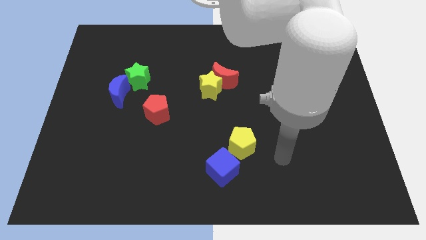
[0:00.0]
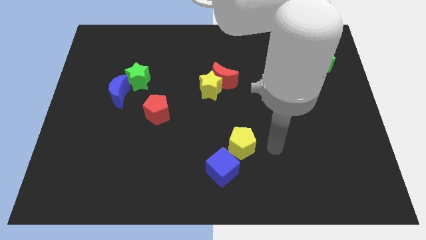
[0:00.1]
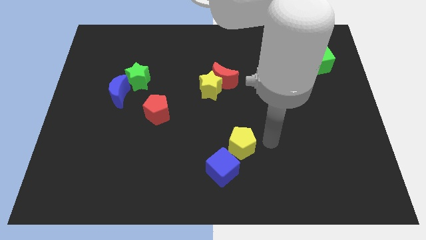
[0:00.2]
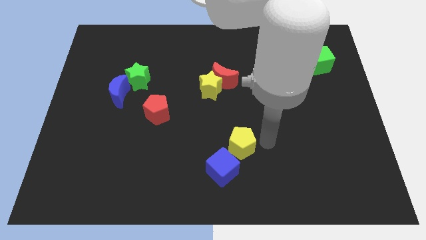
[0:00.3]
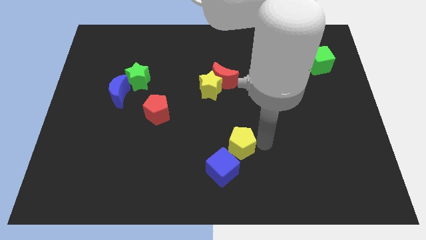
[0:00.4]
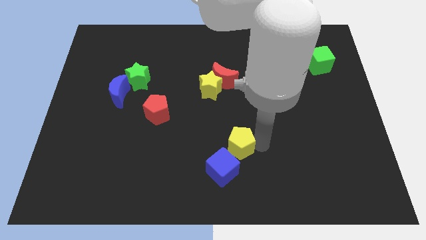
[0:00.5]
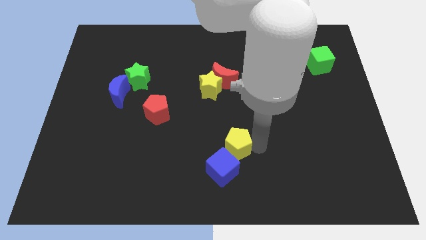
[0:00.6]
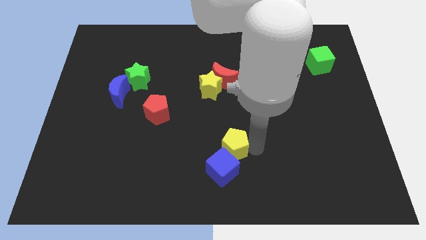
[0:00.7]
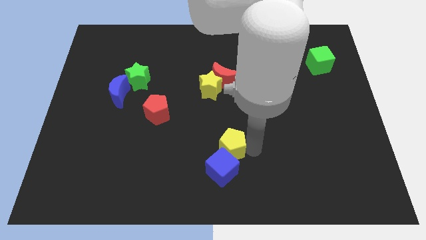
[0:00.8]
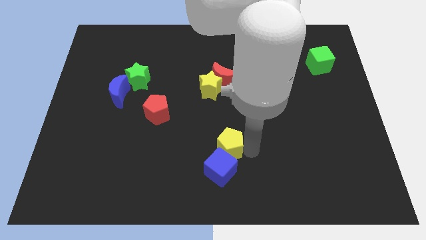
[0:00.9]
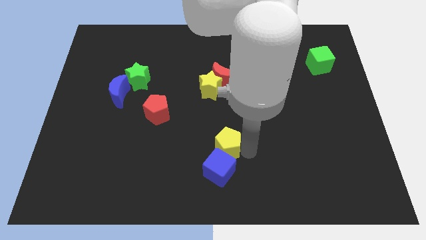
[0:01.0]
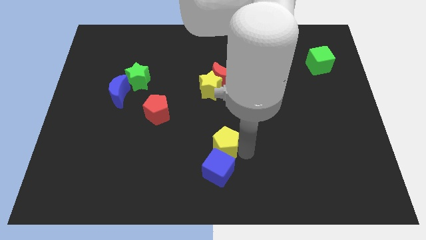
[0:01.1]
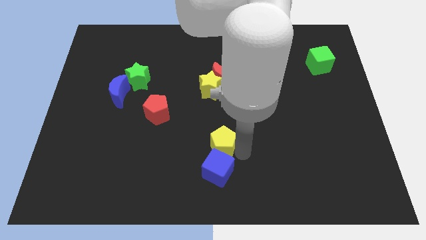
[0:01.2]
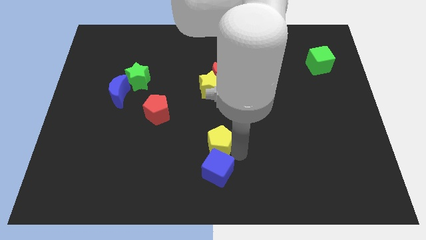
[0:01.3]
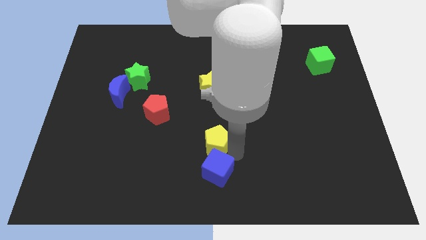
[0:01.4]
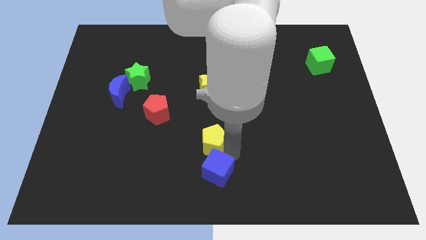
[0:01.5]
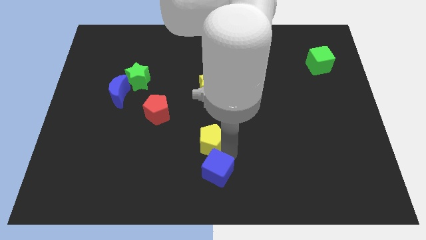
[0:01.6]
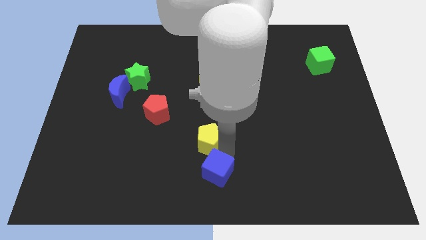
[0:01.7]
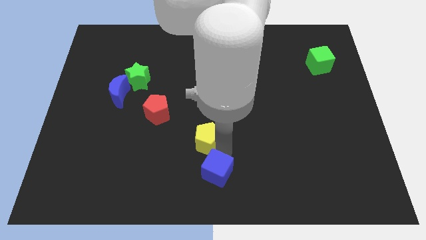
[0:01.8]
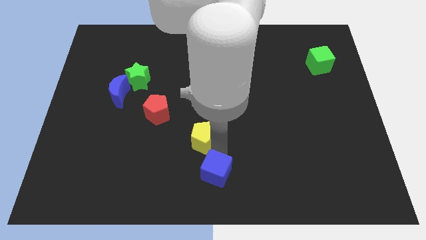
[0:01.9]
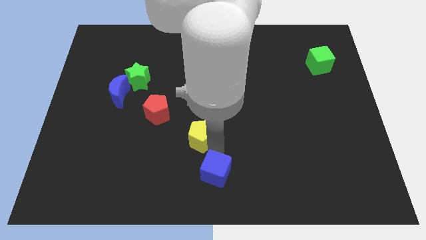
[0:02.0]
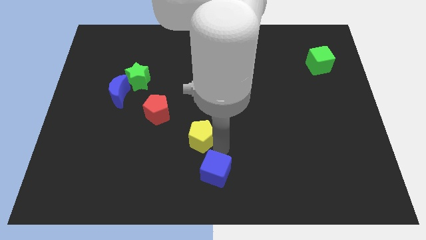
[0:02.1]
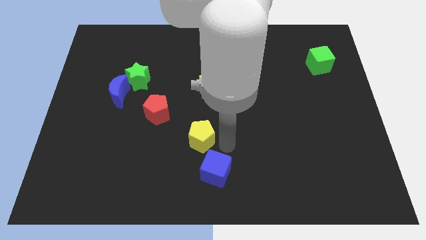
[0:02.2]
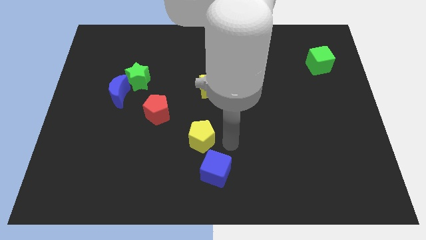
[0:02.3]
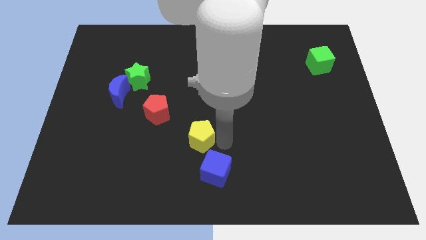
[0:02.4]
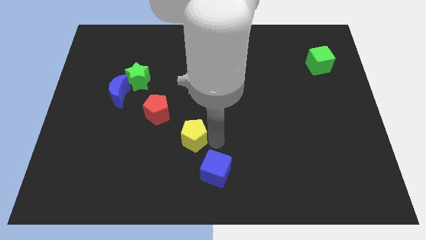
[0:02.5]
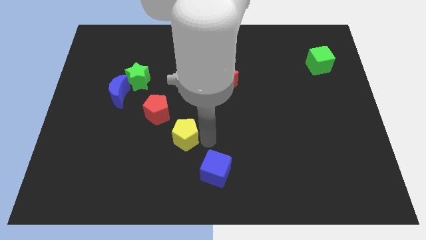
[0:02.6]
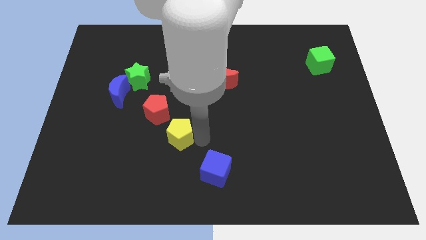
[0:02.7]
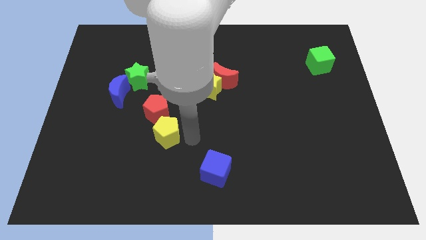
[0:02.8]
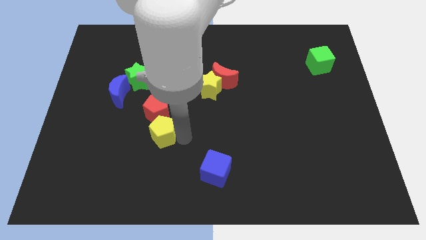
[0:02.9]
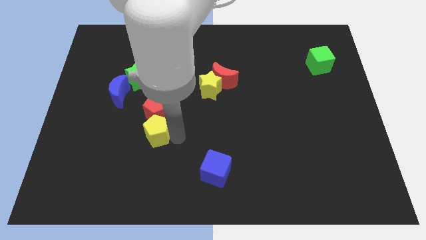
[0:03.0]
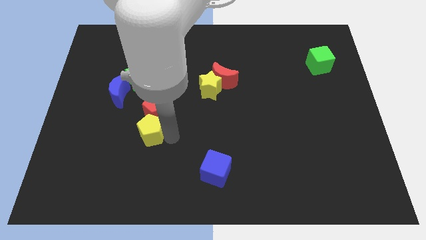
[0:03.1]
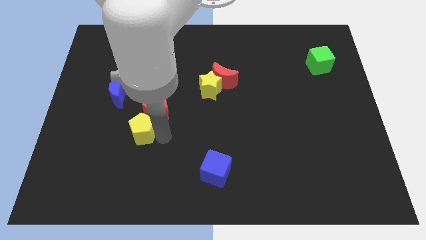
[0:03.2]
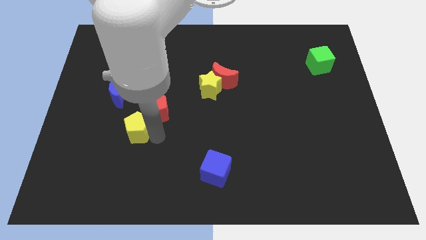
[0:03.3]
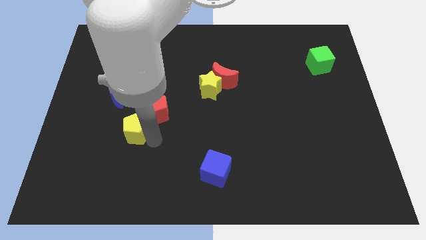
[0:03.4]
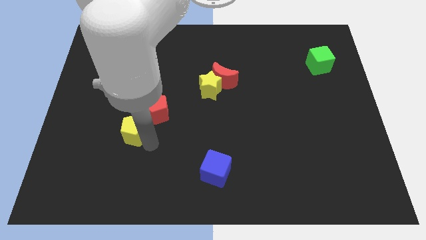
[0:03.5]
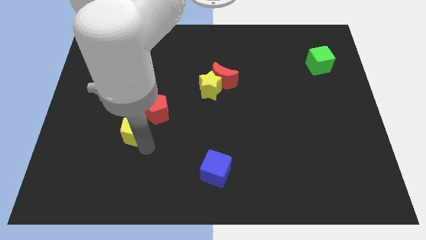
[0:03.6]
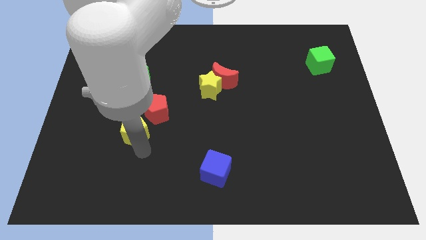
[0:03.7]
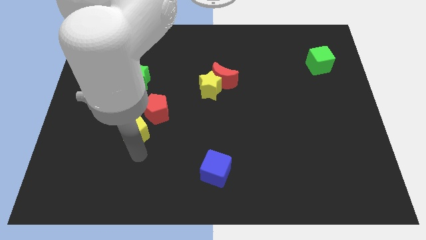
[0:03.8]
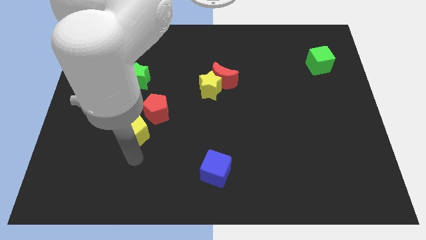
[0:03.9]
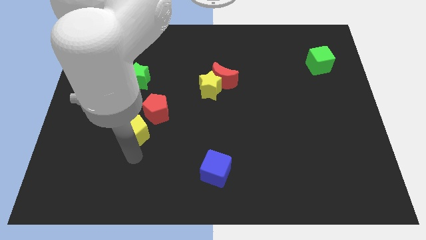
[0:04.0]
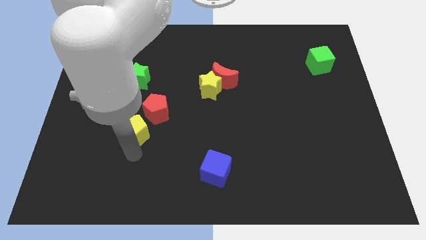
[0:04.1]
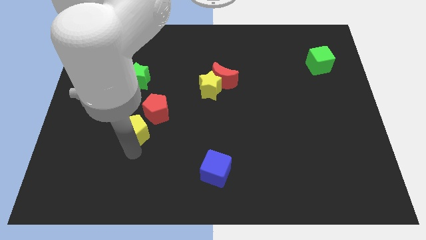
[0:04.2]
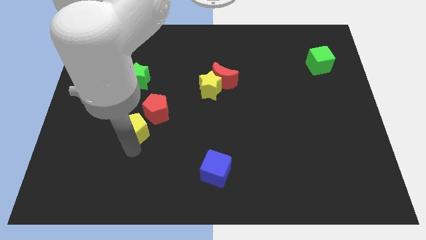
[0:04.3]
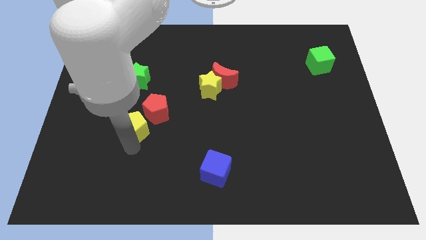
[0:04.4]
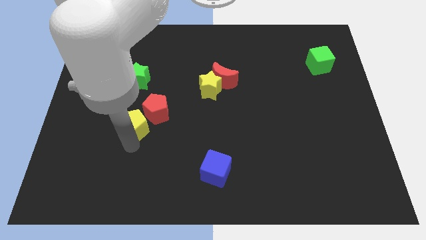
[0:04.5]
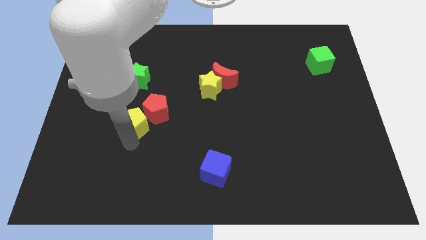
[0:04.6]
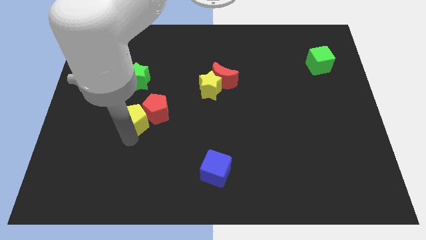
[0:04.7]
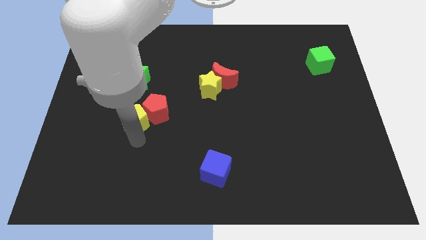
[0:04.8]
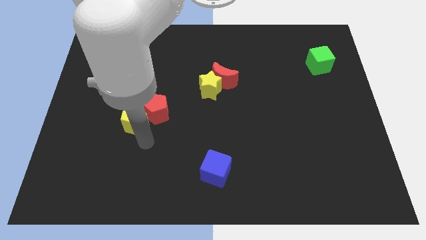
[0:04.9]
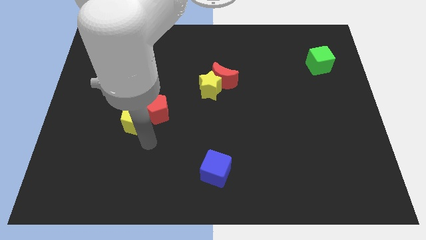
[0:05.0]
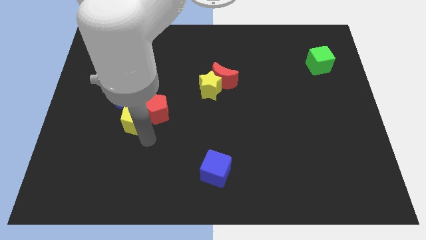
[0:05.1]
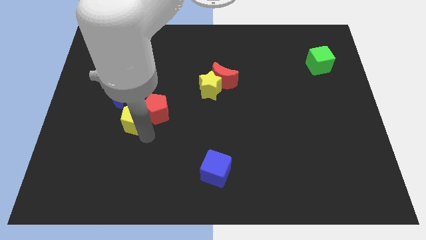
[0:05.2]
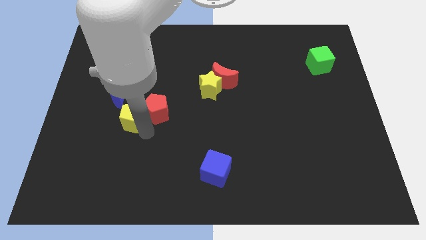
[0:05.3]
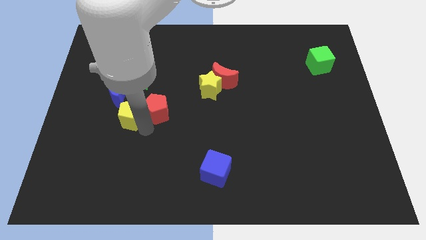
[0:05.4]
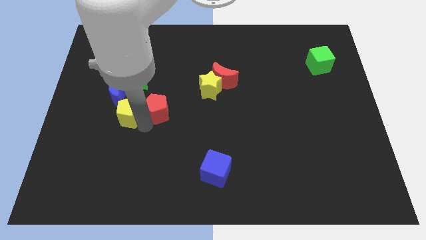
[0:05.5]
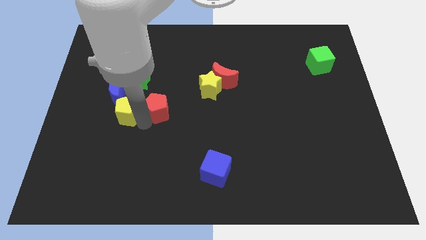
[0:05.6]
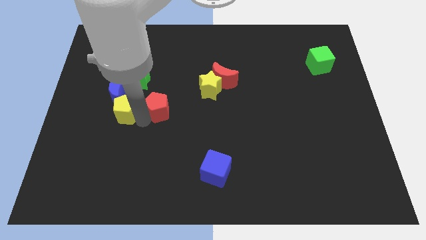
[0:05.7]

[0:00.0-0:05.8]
slide the yellow pentagon to the blue moon
